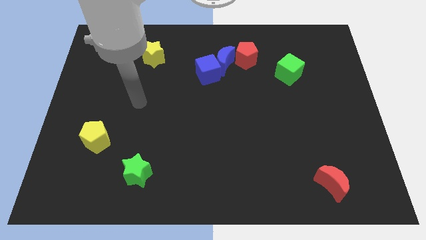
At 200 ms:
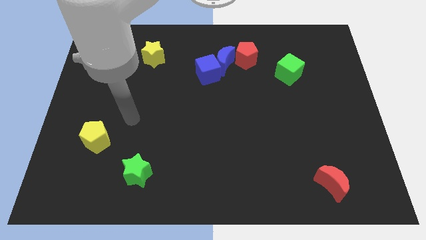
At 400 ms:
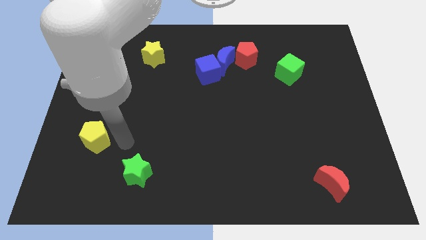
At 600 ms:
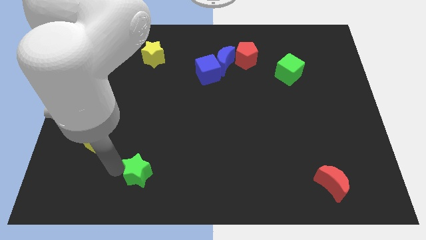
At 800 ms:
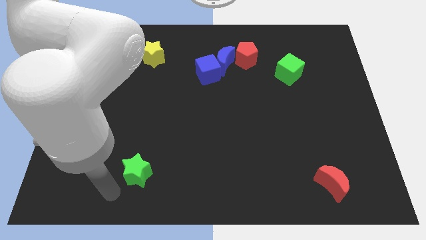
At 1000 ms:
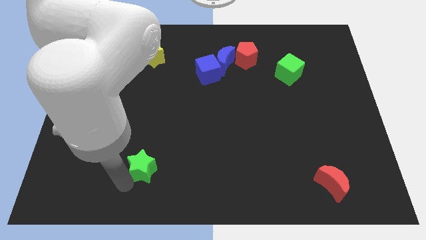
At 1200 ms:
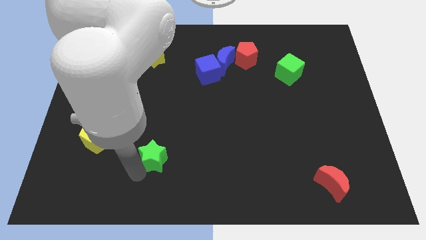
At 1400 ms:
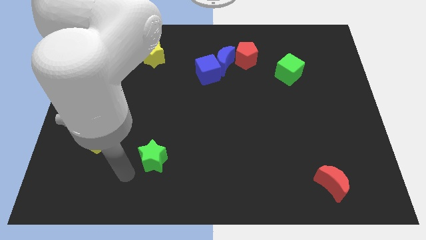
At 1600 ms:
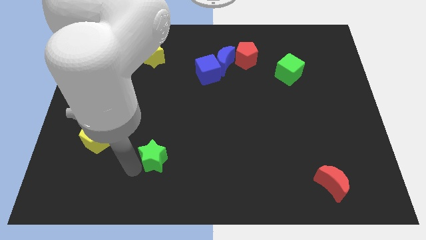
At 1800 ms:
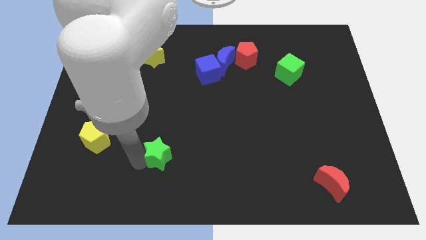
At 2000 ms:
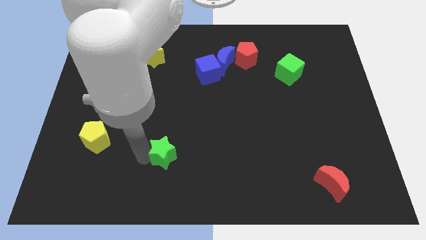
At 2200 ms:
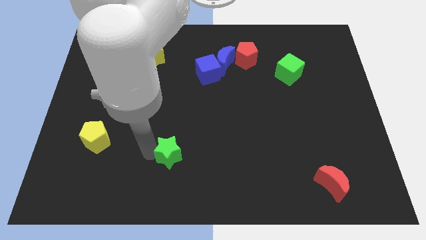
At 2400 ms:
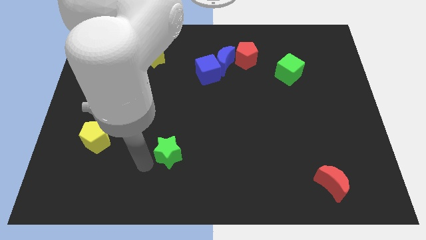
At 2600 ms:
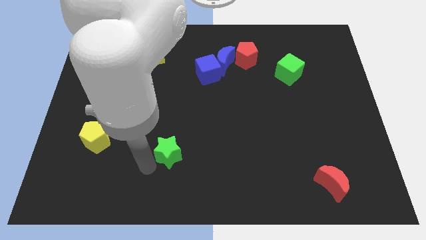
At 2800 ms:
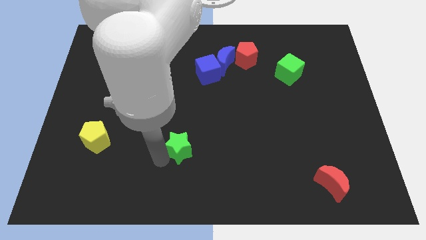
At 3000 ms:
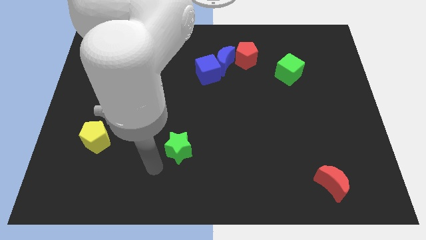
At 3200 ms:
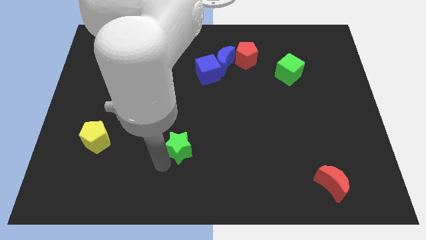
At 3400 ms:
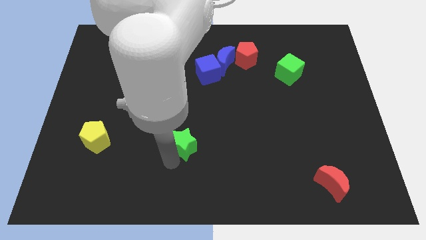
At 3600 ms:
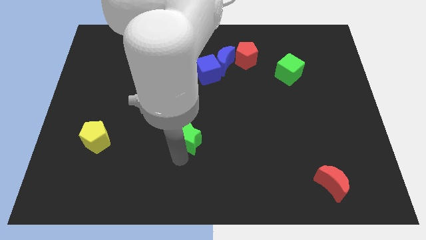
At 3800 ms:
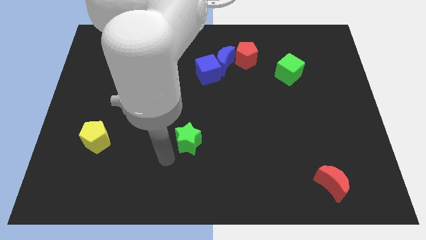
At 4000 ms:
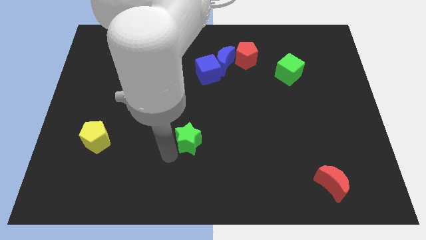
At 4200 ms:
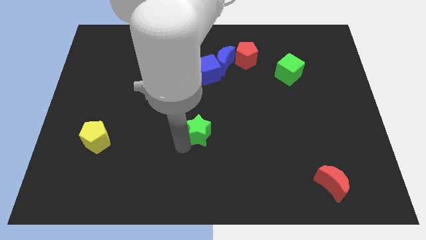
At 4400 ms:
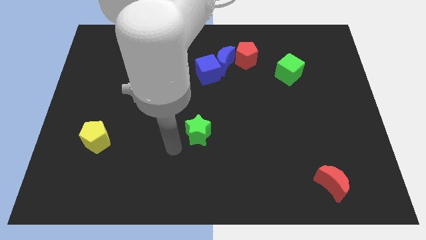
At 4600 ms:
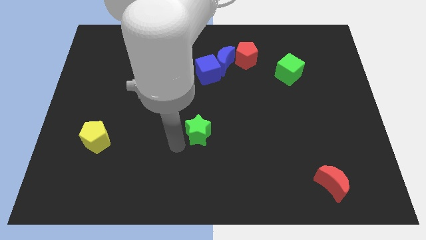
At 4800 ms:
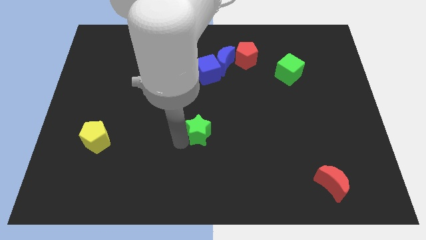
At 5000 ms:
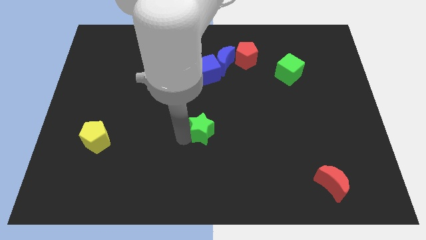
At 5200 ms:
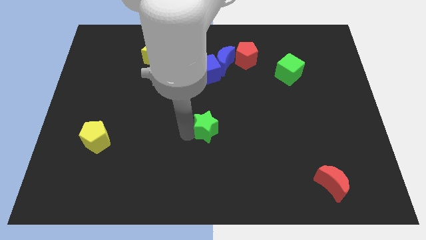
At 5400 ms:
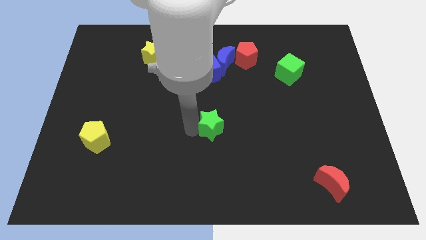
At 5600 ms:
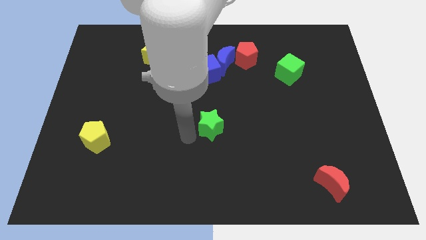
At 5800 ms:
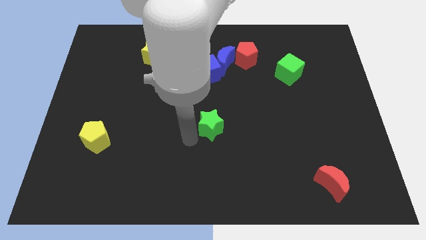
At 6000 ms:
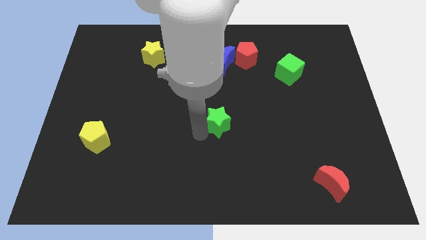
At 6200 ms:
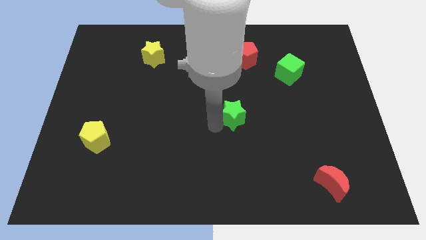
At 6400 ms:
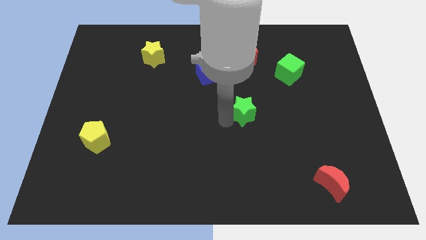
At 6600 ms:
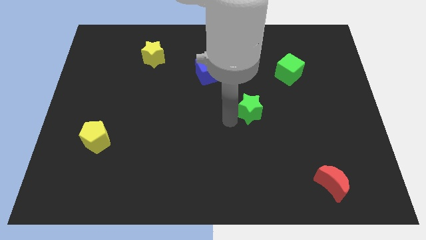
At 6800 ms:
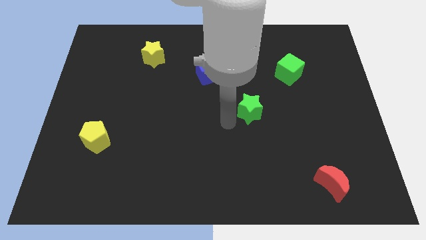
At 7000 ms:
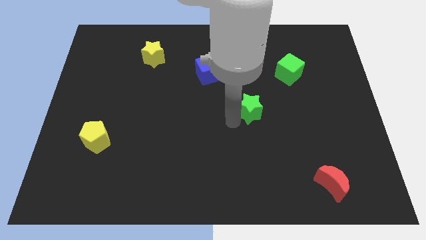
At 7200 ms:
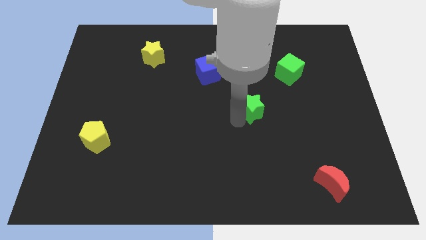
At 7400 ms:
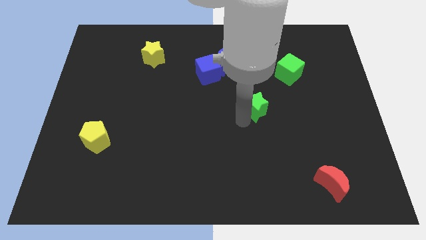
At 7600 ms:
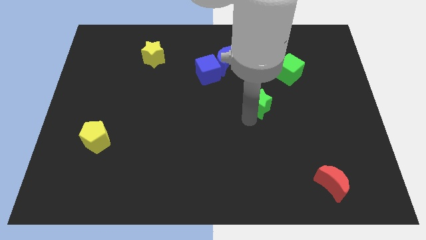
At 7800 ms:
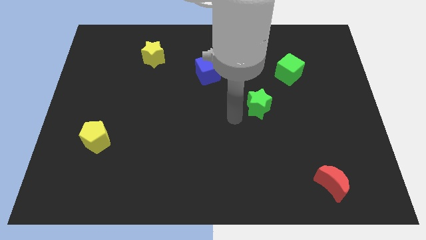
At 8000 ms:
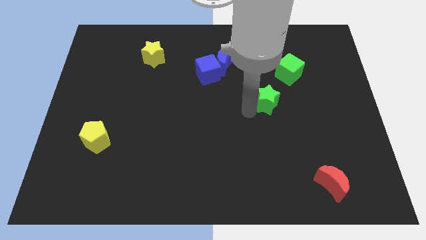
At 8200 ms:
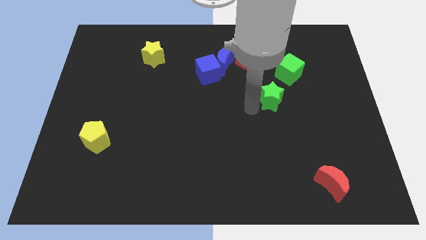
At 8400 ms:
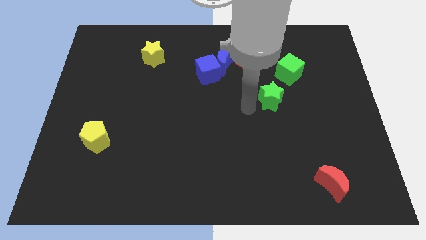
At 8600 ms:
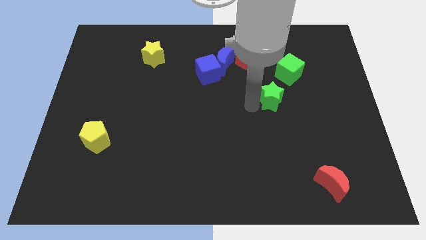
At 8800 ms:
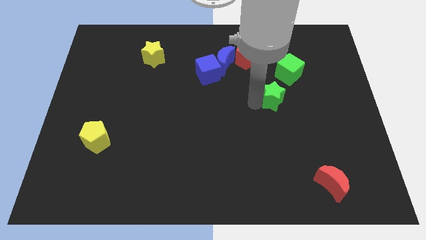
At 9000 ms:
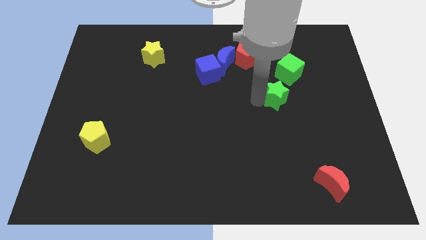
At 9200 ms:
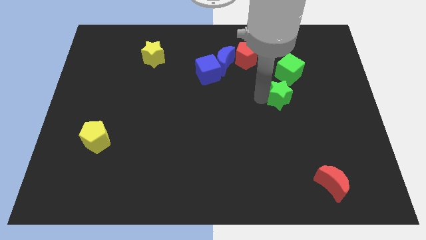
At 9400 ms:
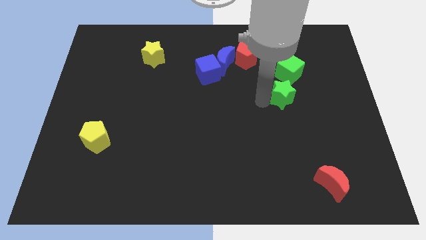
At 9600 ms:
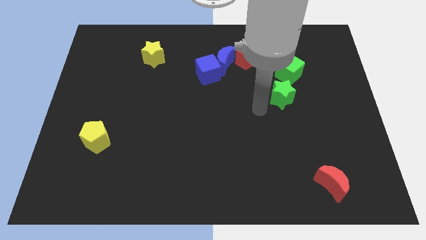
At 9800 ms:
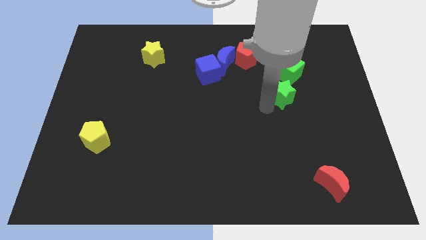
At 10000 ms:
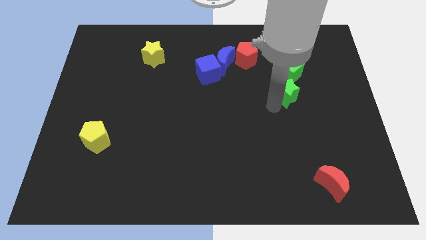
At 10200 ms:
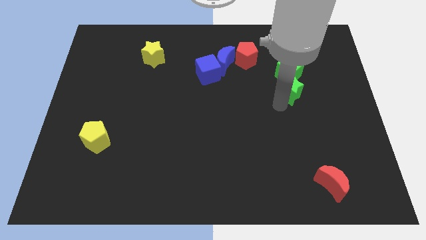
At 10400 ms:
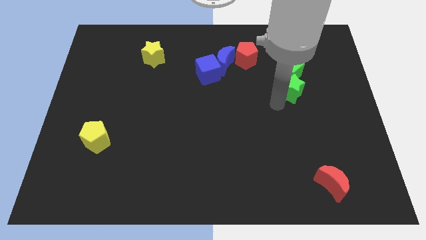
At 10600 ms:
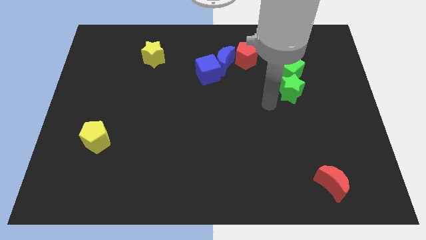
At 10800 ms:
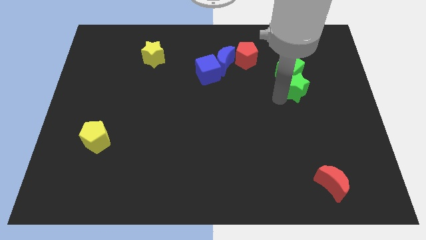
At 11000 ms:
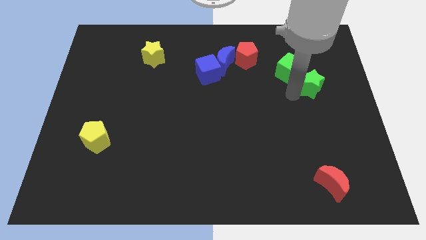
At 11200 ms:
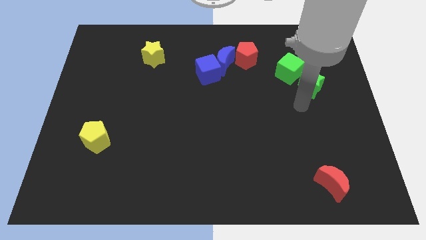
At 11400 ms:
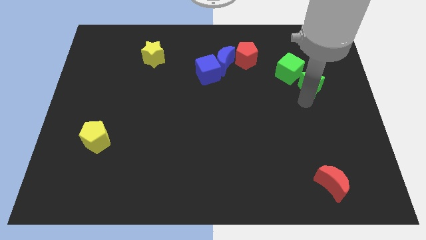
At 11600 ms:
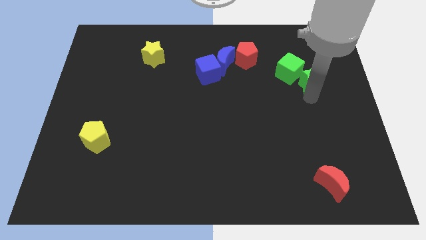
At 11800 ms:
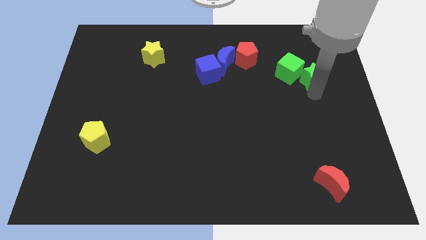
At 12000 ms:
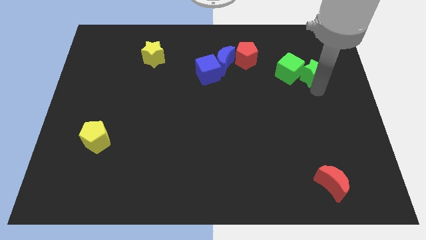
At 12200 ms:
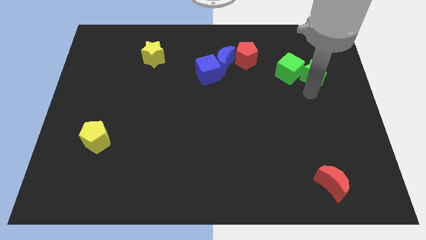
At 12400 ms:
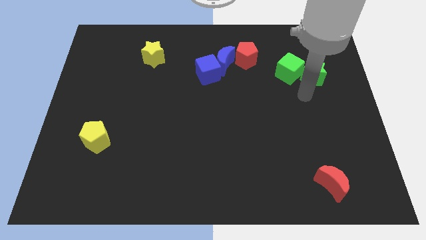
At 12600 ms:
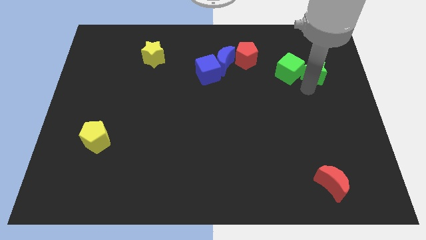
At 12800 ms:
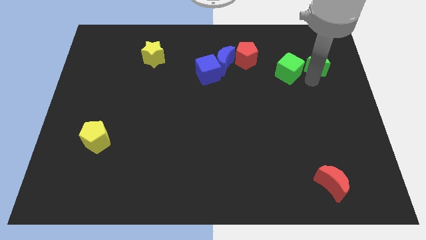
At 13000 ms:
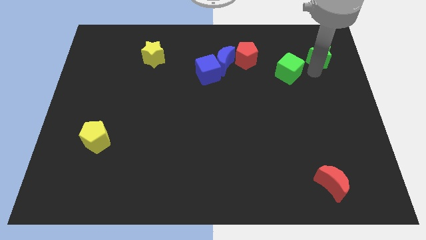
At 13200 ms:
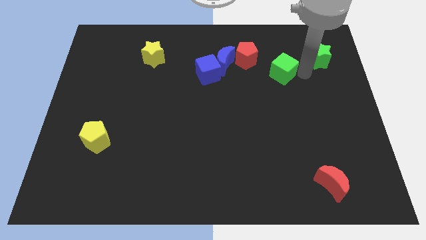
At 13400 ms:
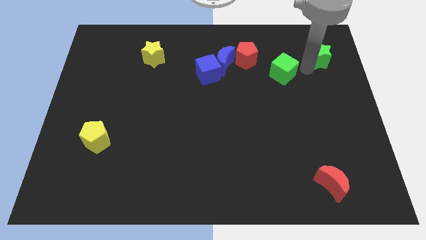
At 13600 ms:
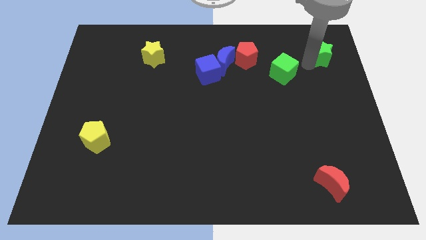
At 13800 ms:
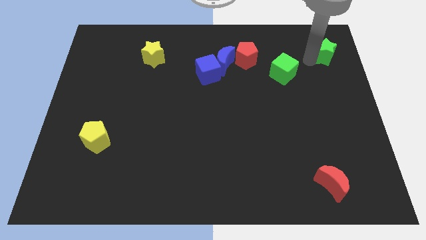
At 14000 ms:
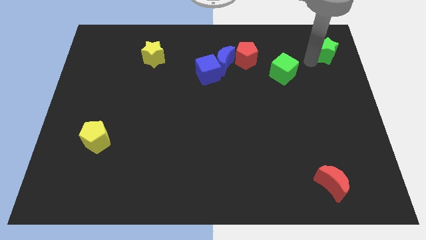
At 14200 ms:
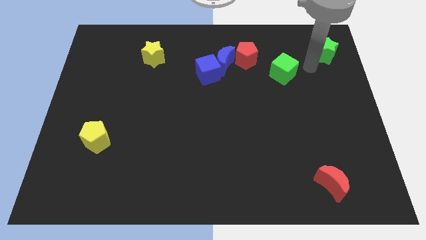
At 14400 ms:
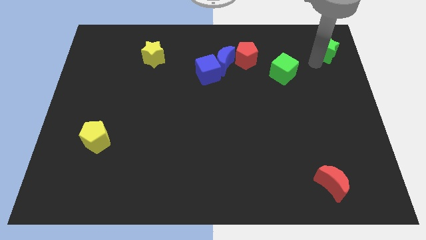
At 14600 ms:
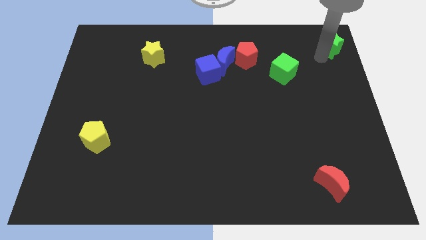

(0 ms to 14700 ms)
move the green star to the top right corner
